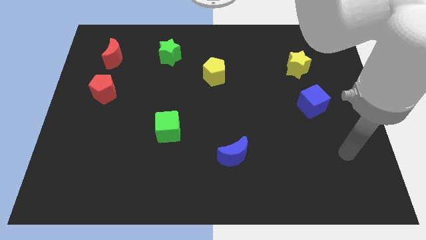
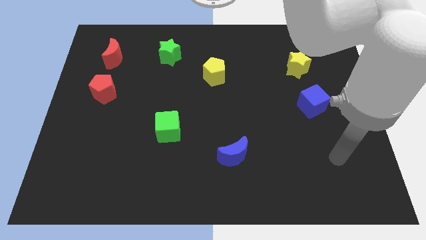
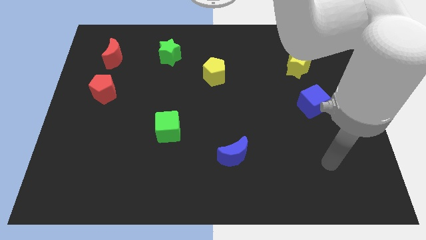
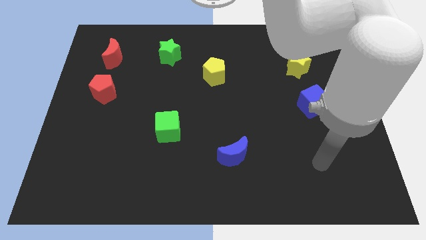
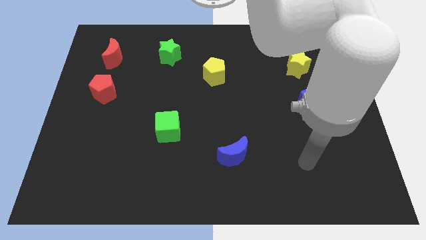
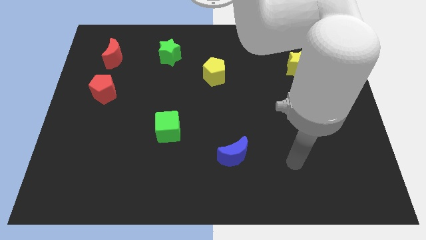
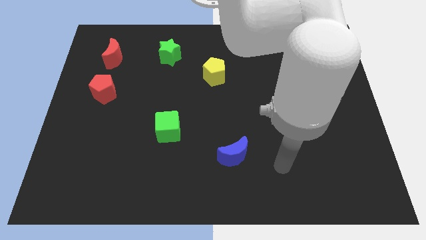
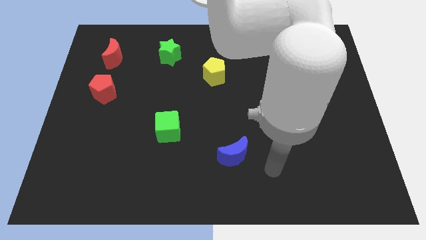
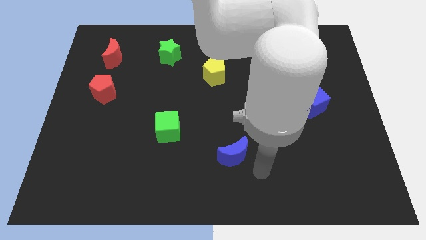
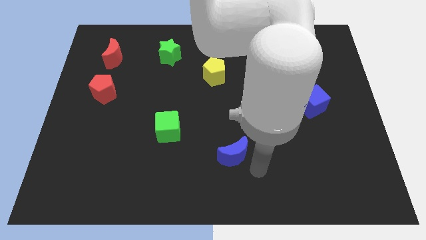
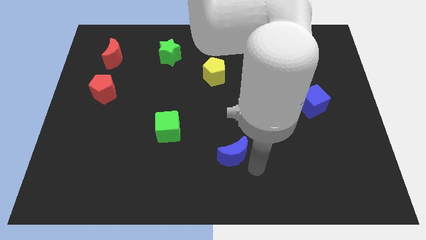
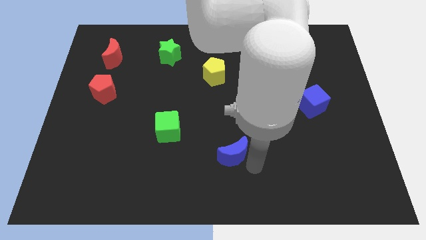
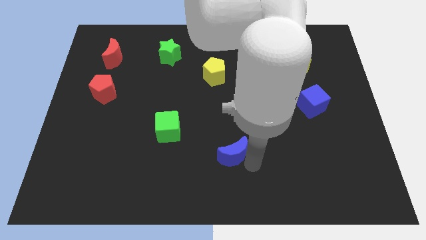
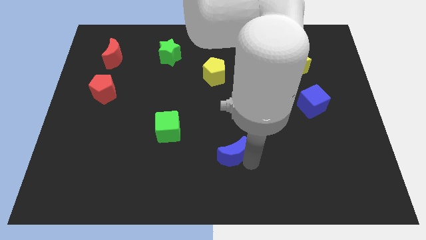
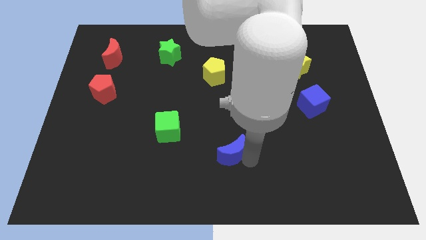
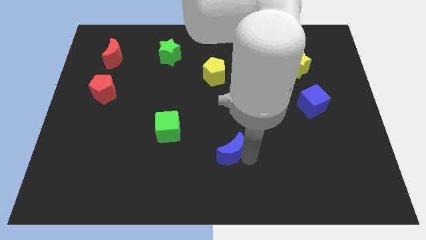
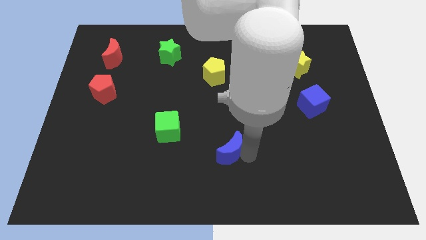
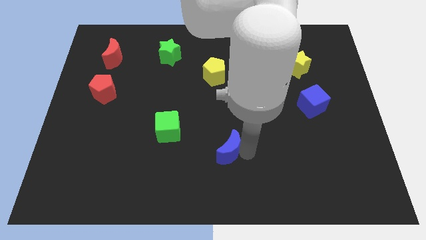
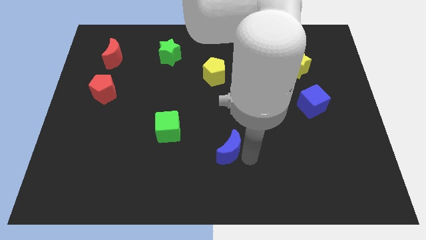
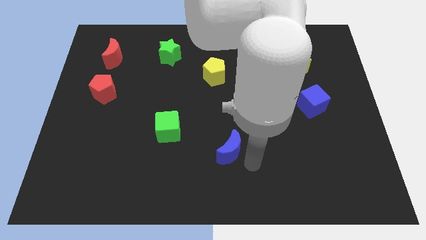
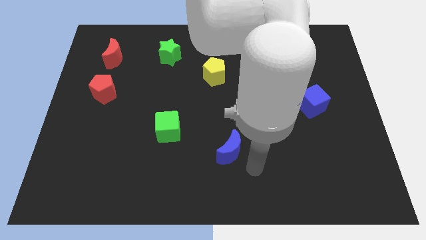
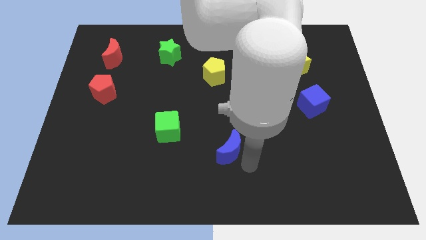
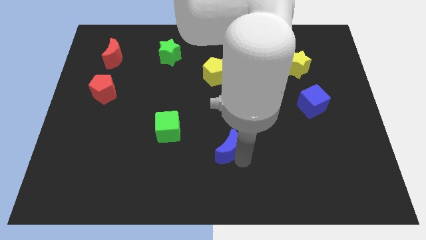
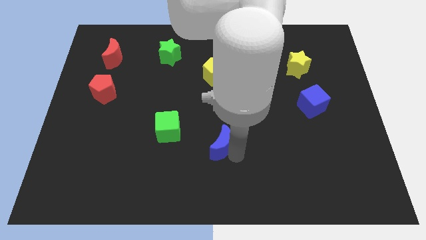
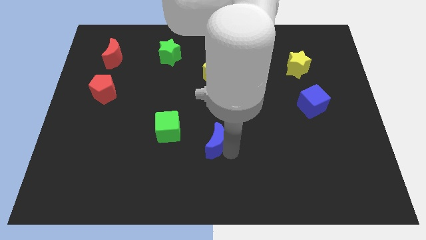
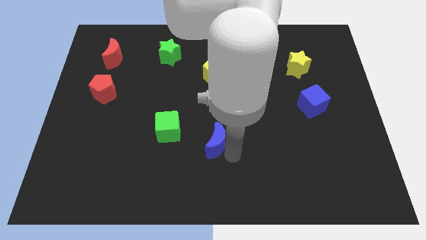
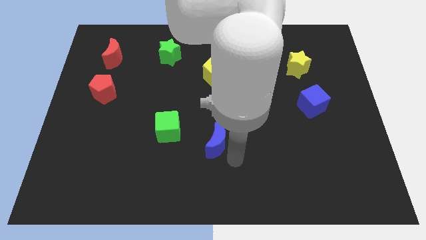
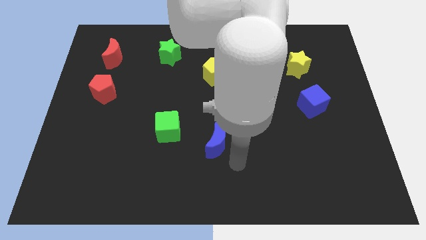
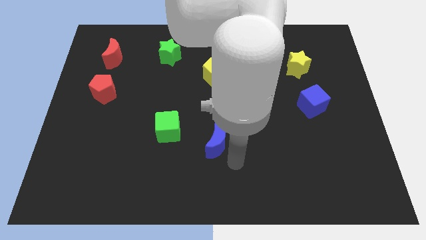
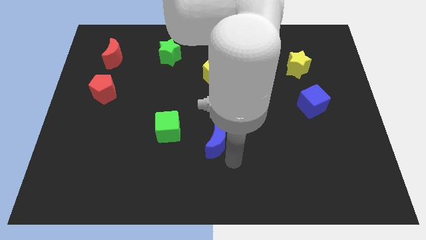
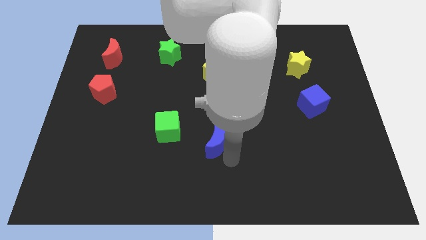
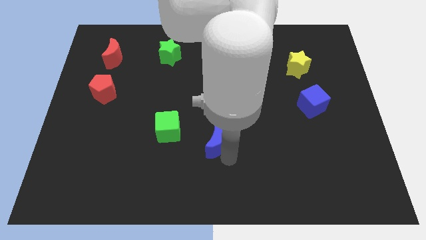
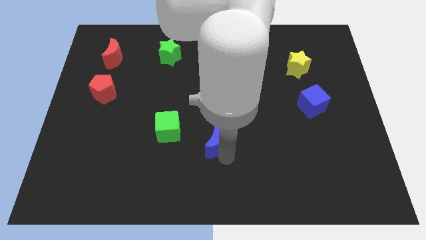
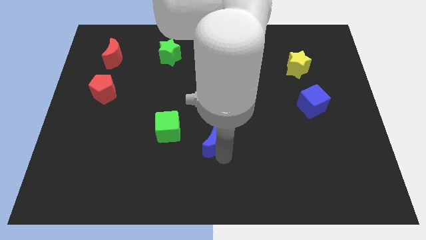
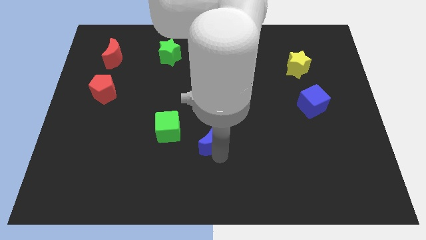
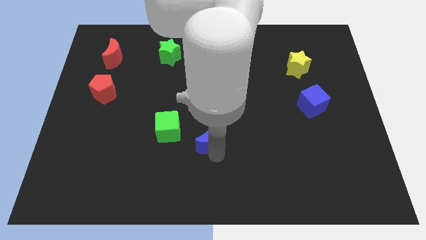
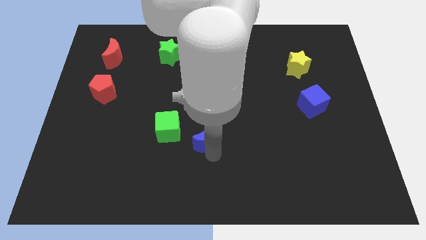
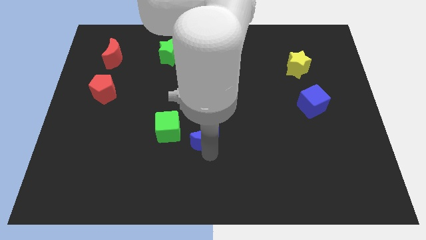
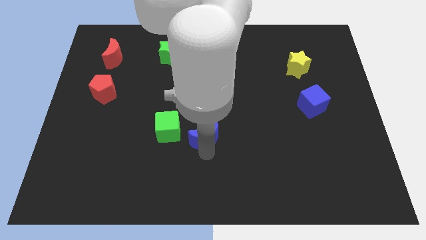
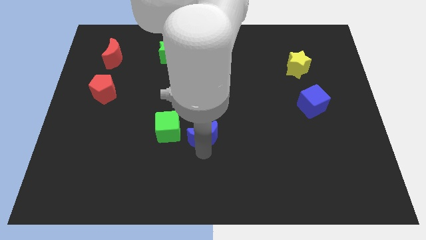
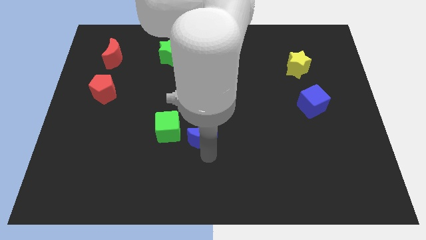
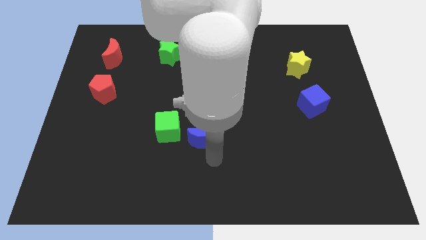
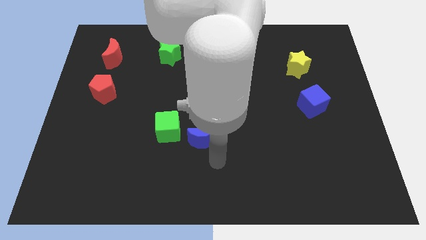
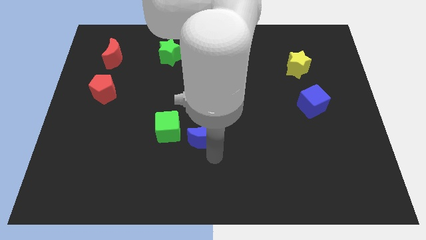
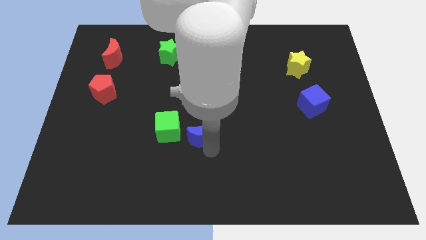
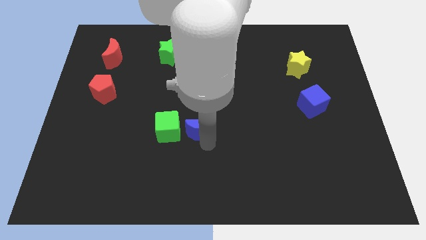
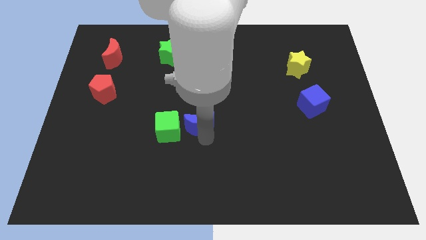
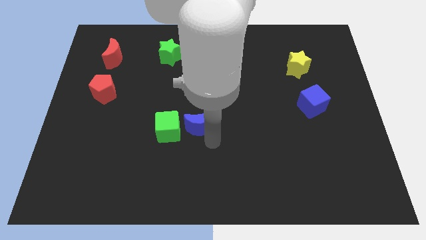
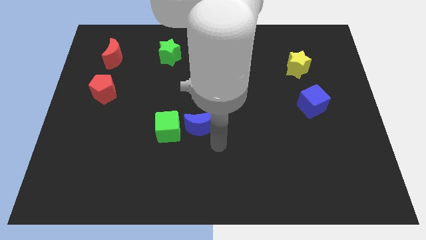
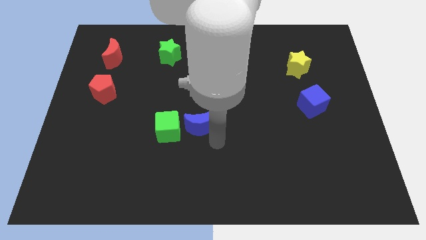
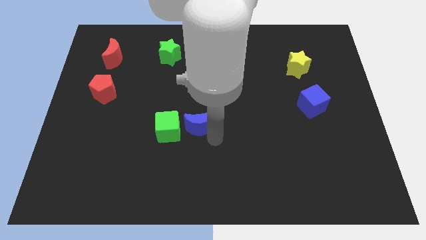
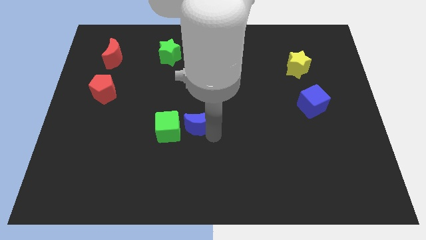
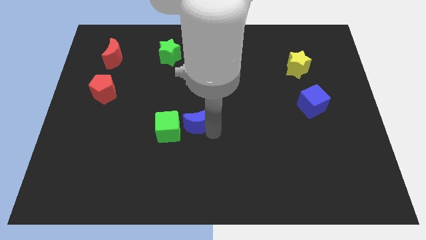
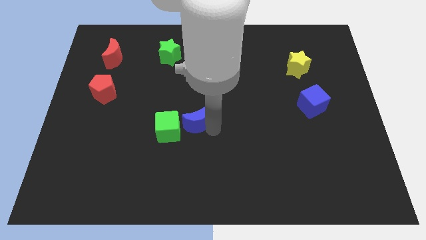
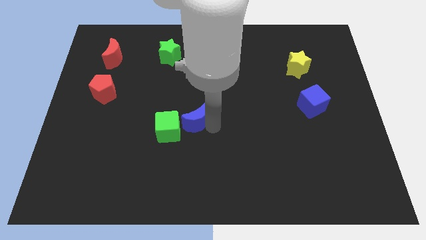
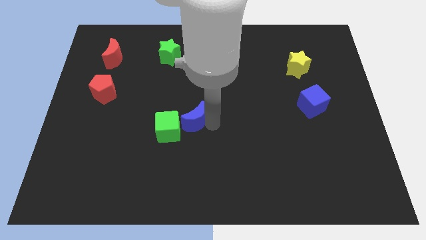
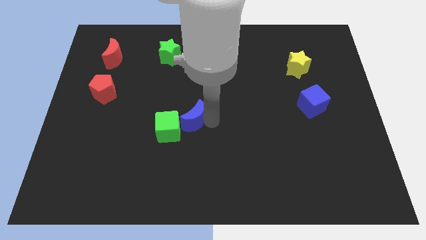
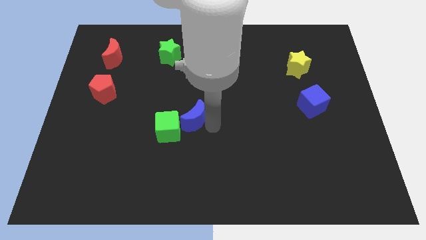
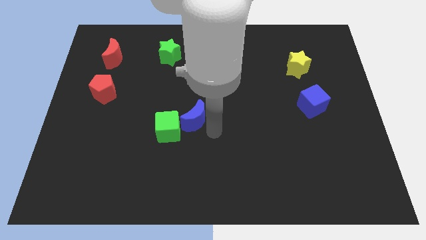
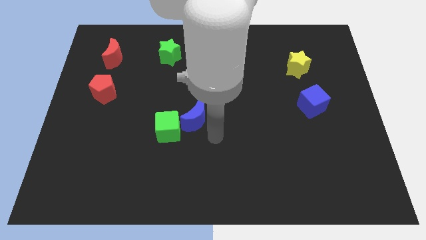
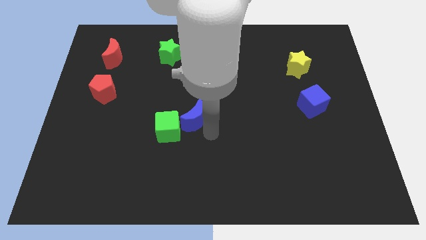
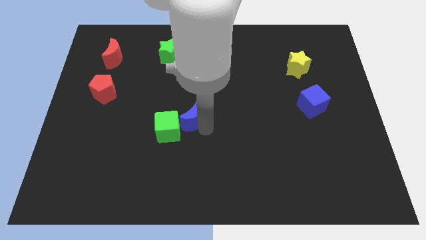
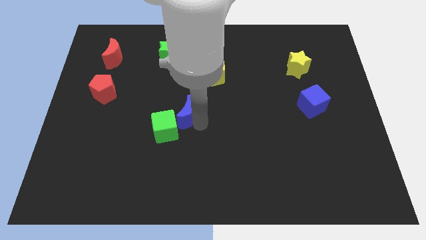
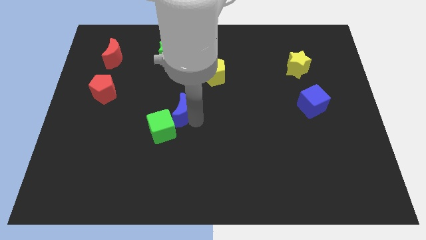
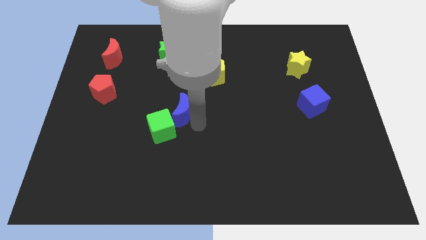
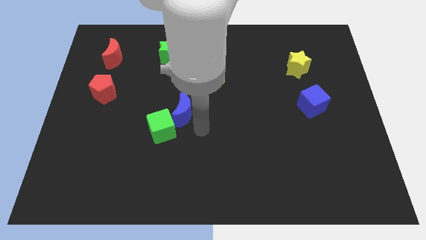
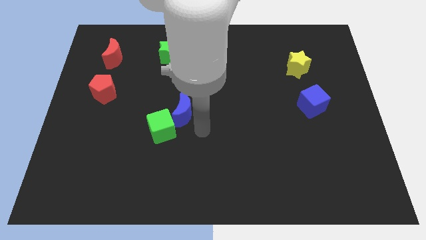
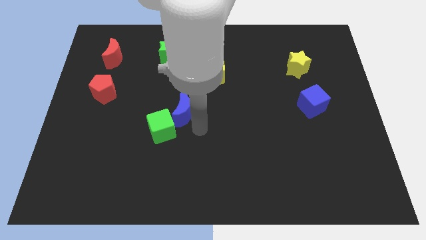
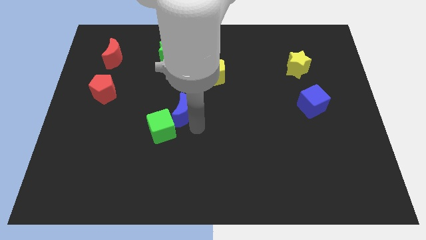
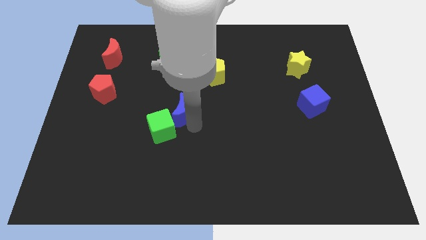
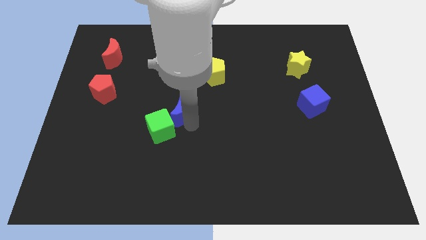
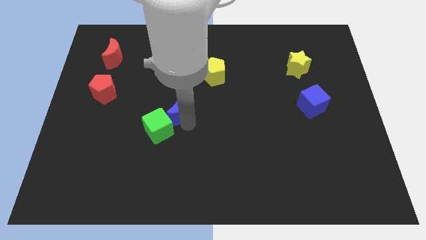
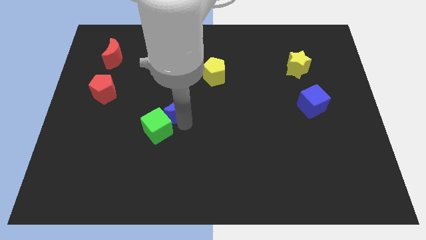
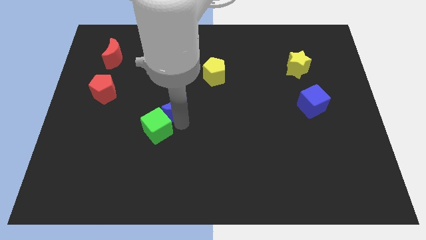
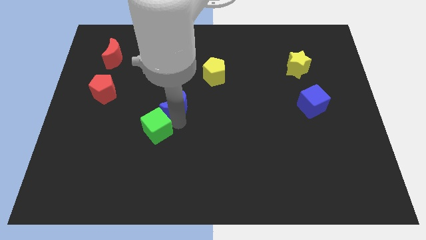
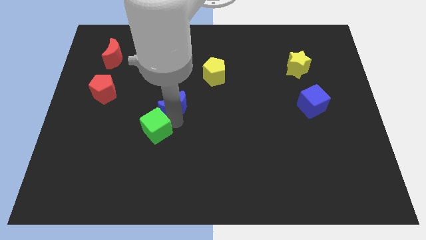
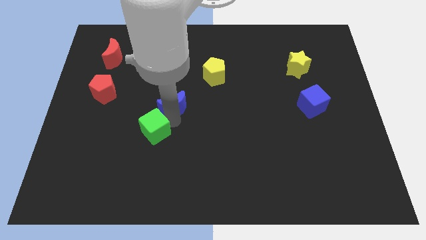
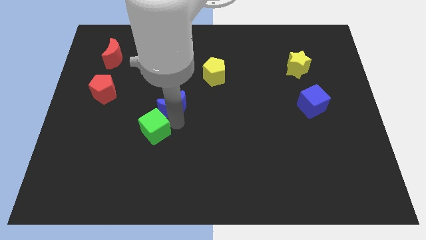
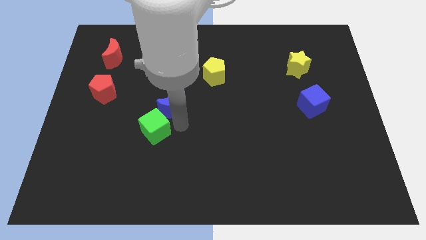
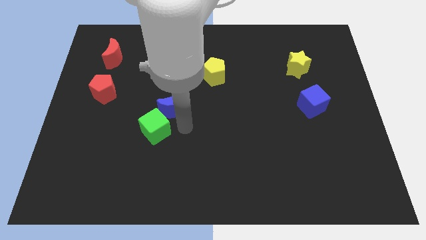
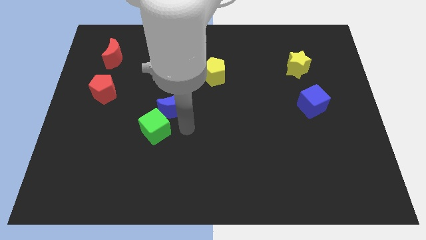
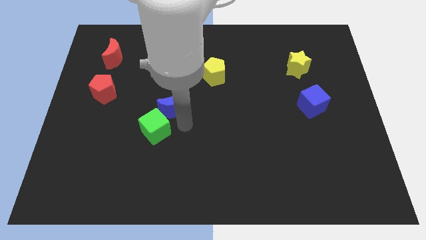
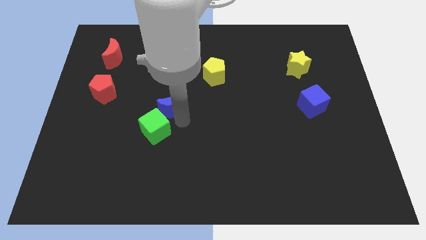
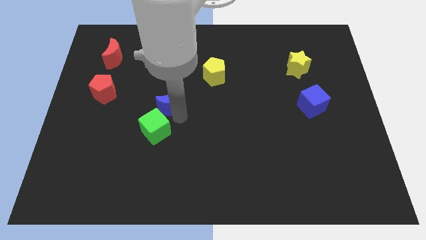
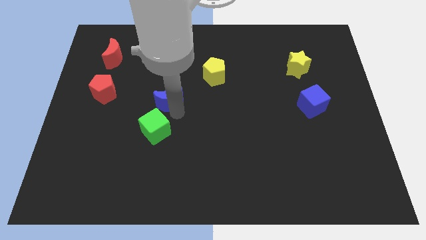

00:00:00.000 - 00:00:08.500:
slide the blue moon diagonally upwards and left
